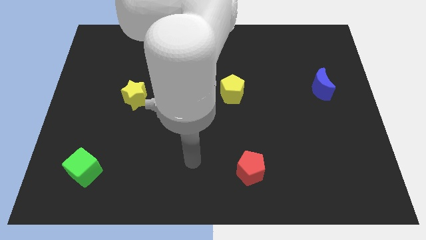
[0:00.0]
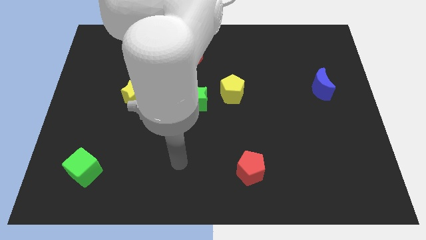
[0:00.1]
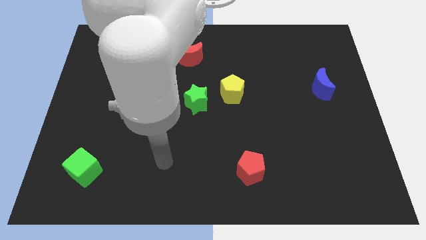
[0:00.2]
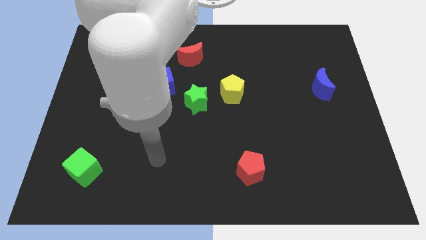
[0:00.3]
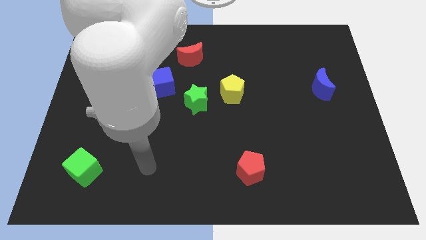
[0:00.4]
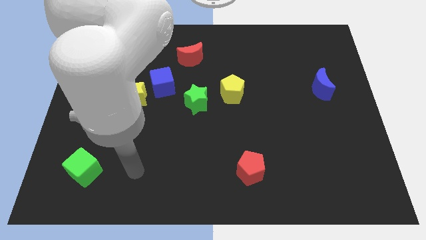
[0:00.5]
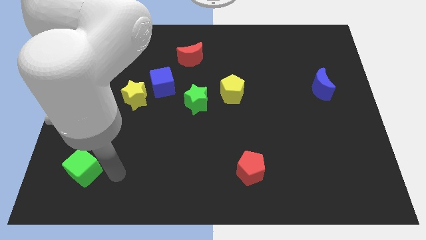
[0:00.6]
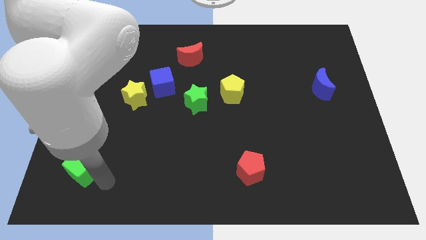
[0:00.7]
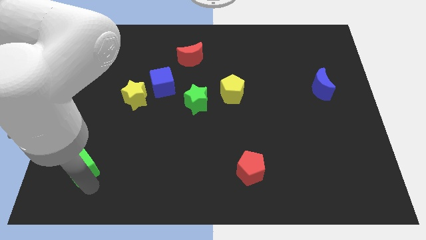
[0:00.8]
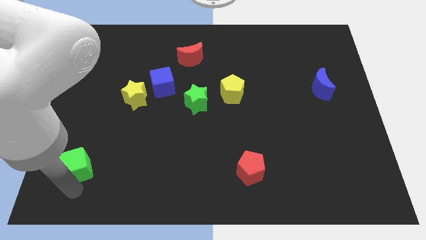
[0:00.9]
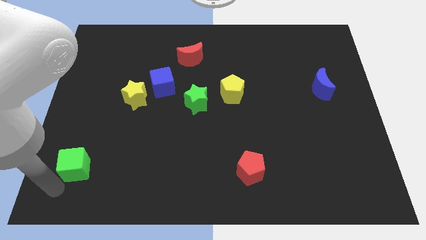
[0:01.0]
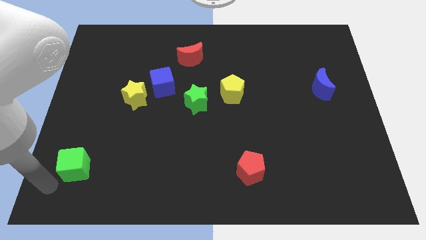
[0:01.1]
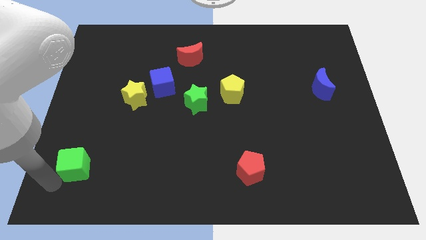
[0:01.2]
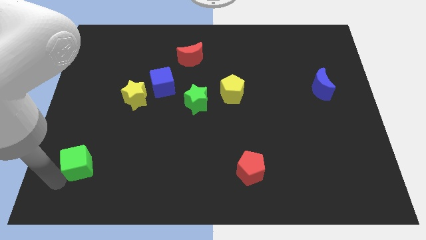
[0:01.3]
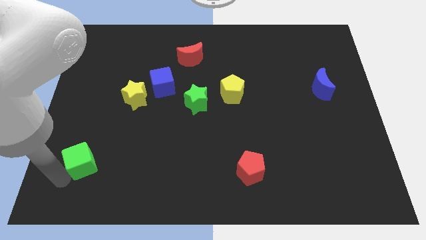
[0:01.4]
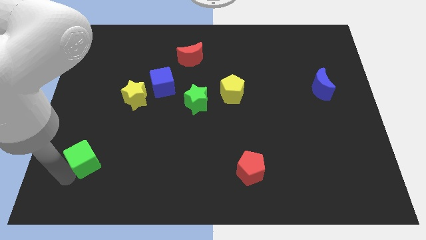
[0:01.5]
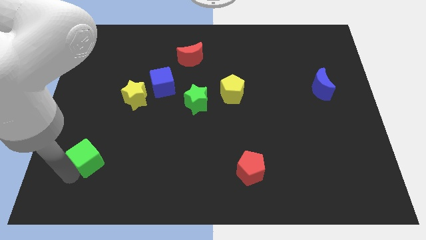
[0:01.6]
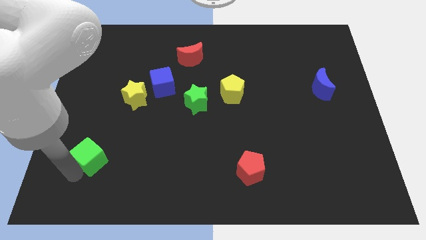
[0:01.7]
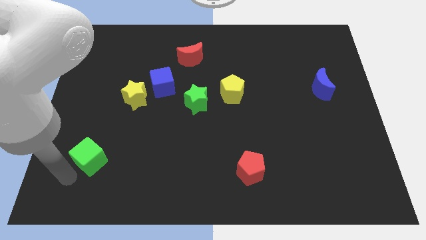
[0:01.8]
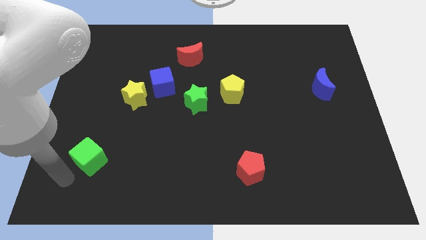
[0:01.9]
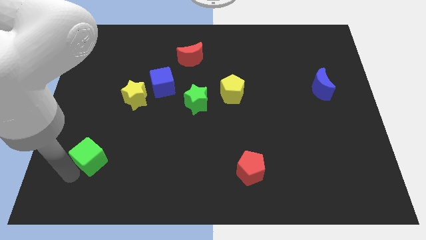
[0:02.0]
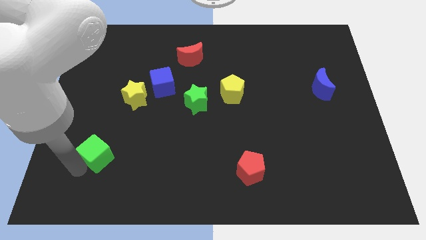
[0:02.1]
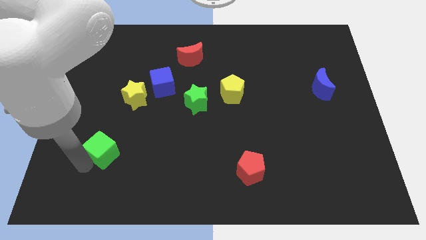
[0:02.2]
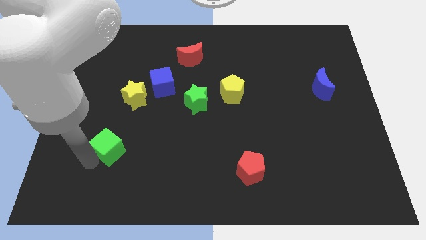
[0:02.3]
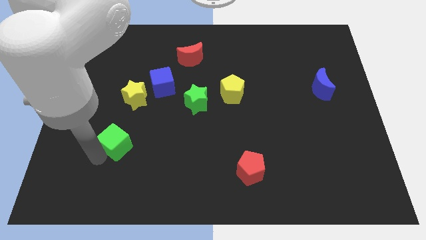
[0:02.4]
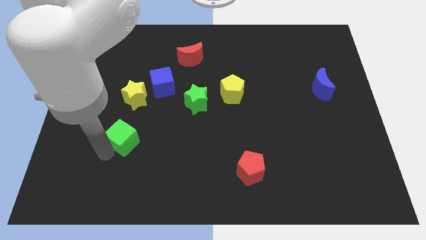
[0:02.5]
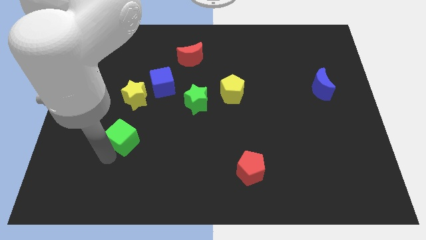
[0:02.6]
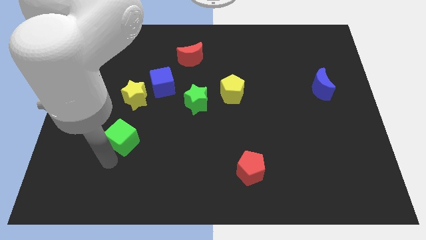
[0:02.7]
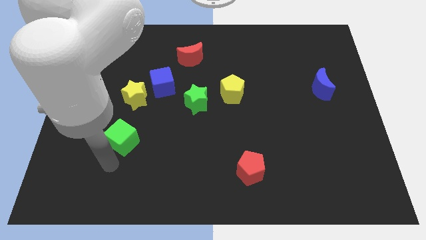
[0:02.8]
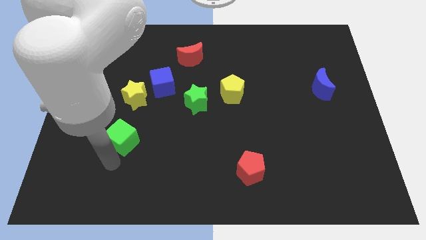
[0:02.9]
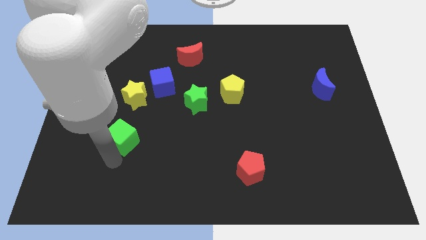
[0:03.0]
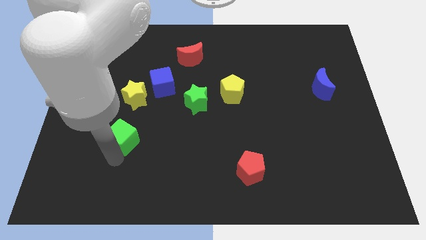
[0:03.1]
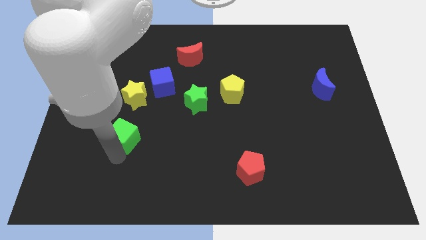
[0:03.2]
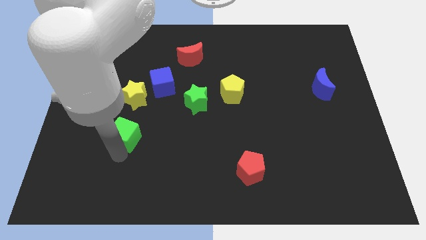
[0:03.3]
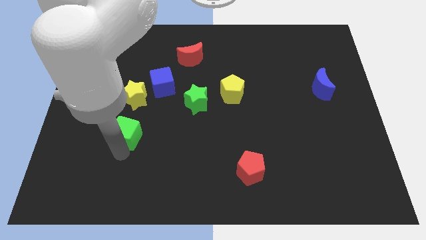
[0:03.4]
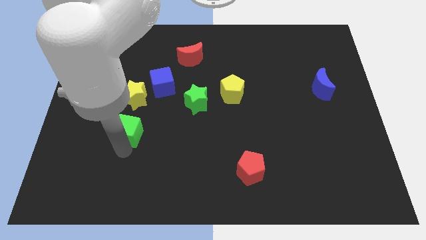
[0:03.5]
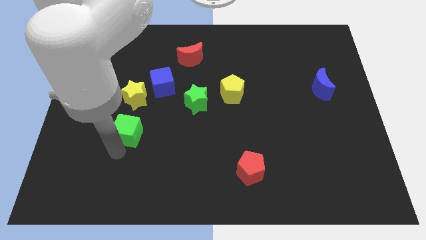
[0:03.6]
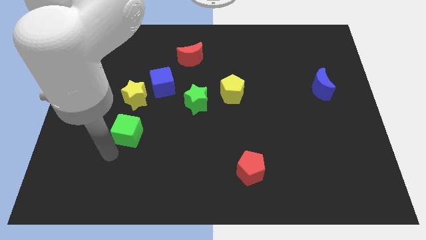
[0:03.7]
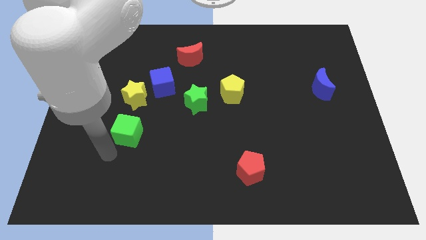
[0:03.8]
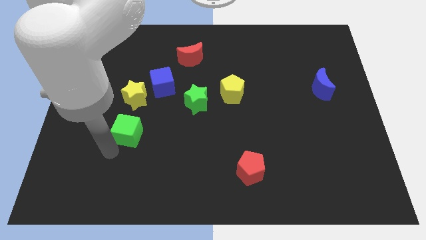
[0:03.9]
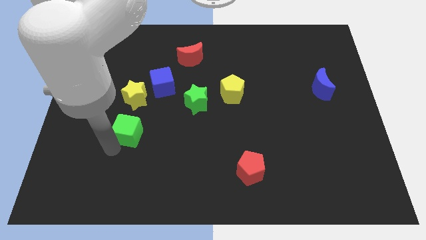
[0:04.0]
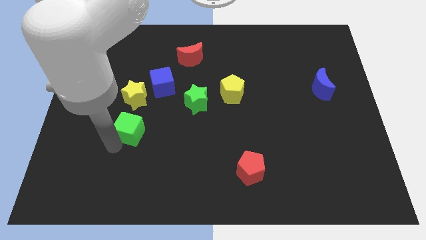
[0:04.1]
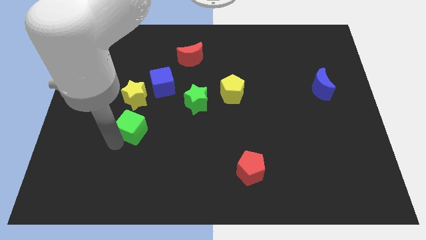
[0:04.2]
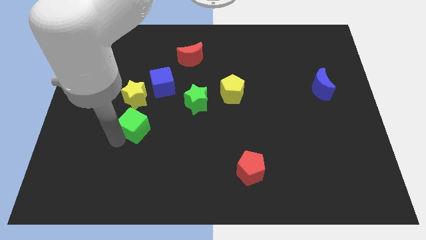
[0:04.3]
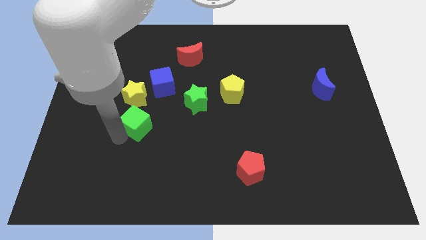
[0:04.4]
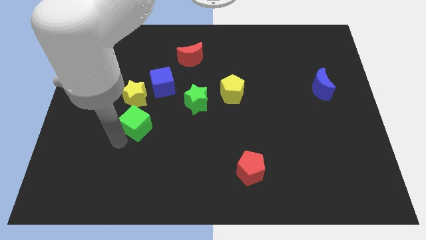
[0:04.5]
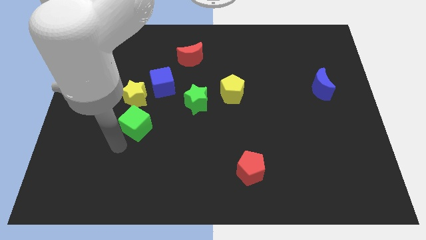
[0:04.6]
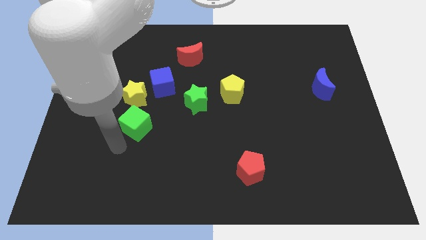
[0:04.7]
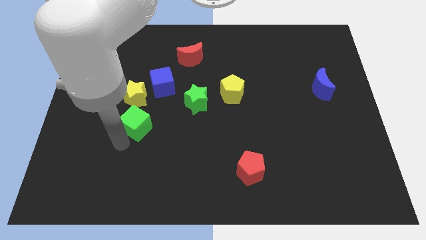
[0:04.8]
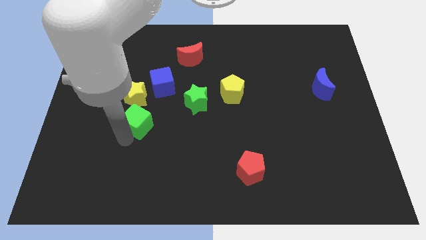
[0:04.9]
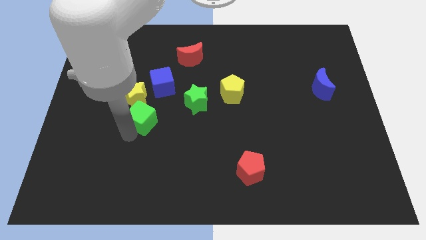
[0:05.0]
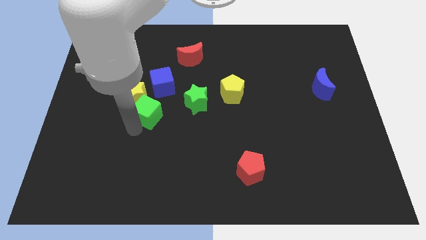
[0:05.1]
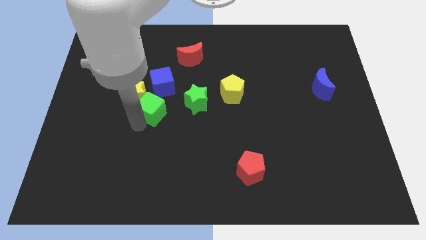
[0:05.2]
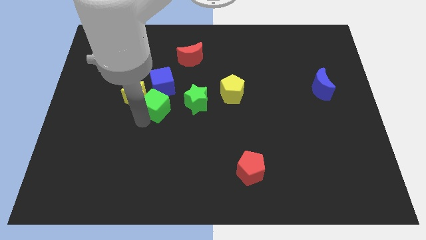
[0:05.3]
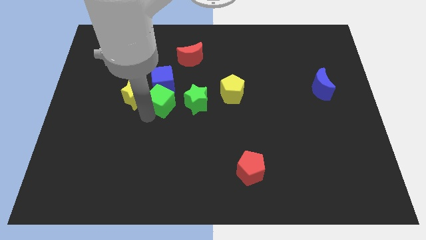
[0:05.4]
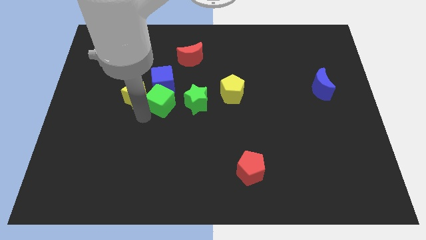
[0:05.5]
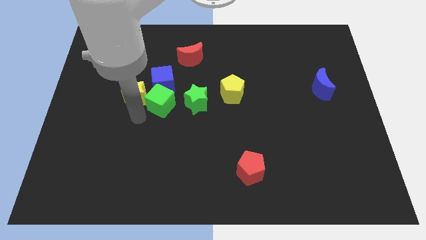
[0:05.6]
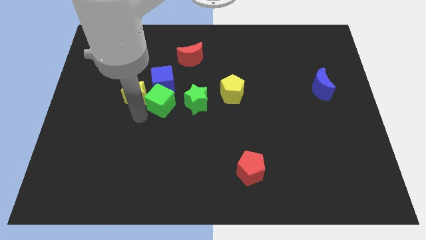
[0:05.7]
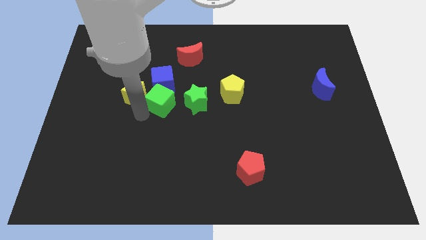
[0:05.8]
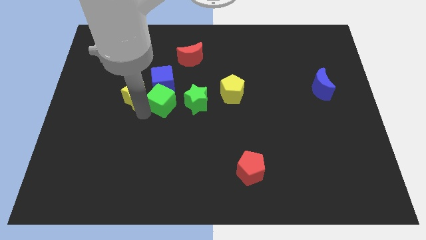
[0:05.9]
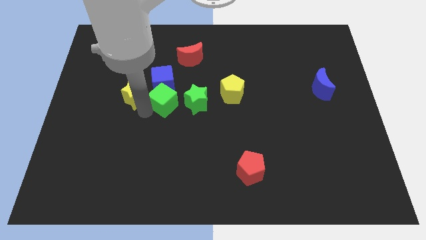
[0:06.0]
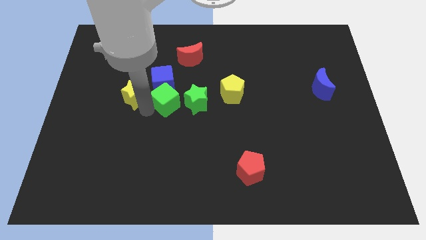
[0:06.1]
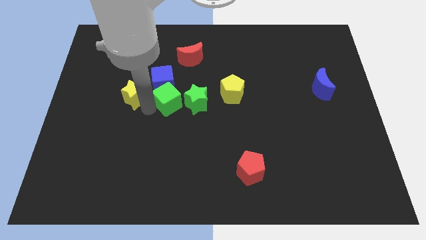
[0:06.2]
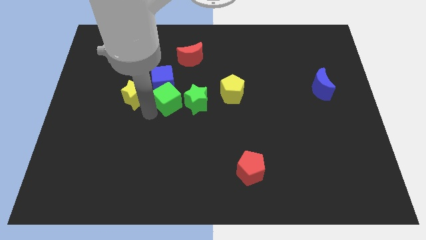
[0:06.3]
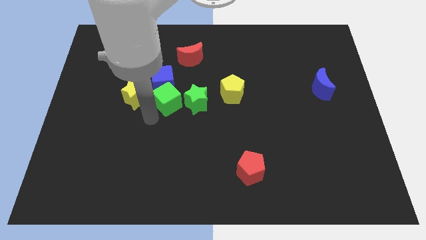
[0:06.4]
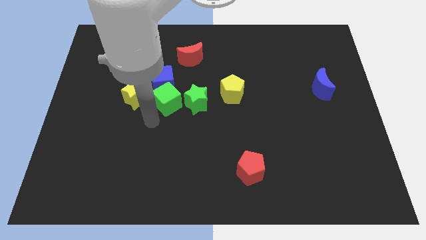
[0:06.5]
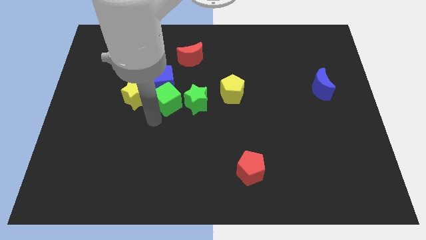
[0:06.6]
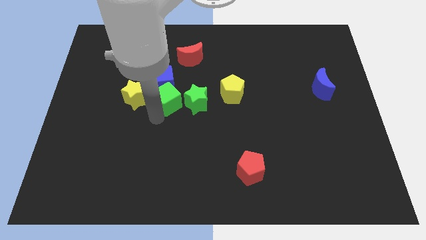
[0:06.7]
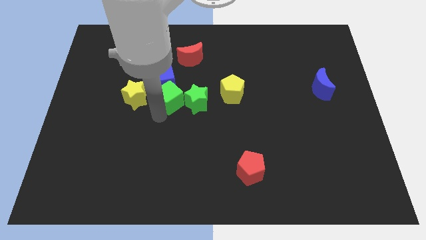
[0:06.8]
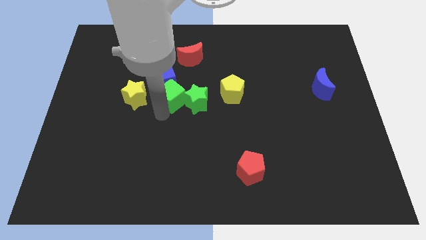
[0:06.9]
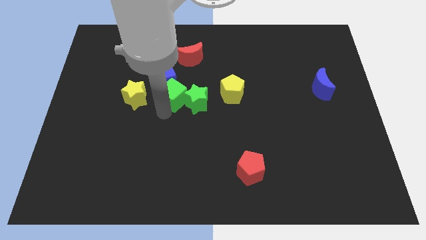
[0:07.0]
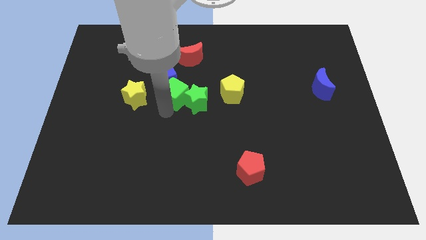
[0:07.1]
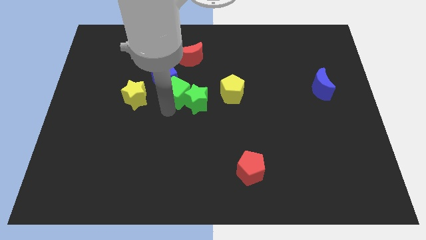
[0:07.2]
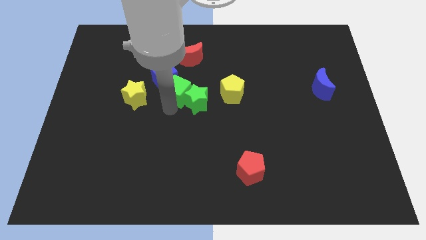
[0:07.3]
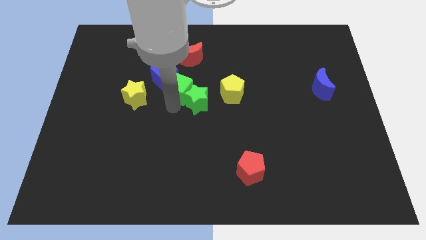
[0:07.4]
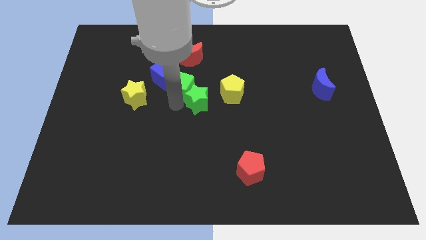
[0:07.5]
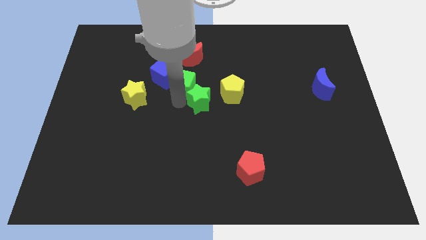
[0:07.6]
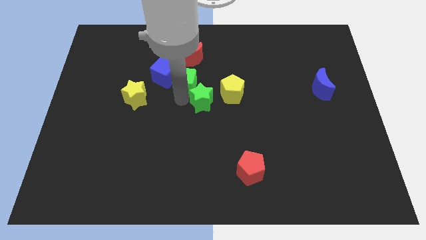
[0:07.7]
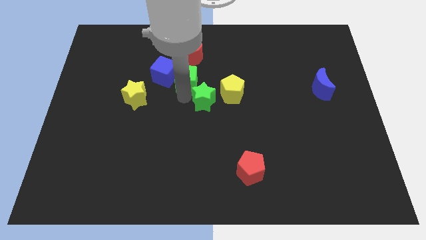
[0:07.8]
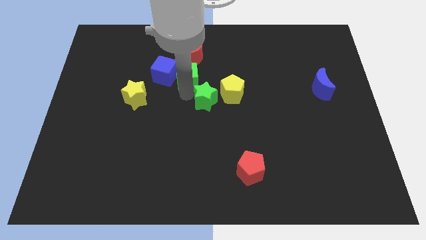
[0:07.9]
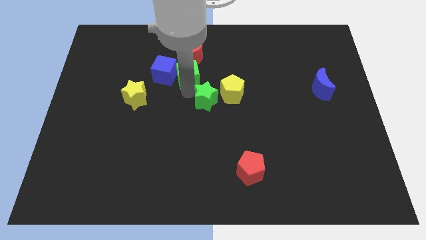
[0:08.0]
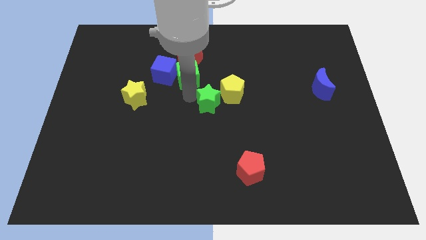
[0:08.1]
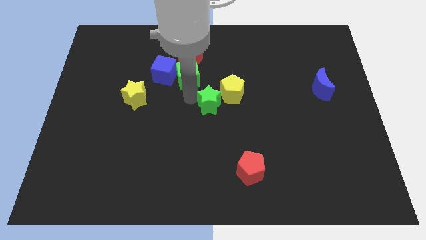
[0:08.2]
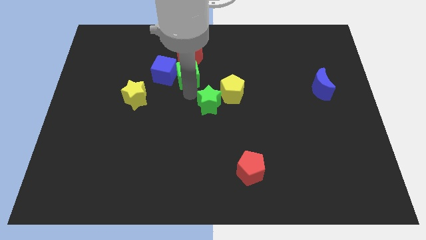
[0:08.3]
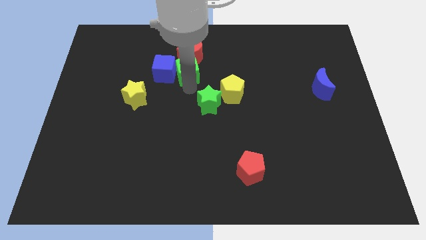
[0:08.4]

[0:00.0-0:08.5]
push the green cube to the top right of the blue cube
